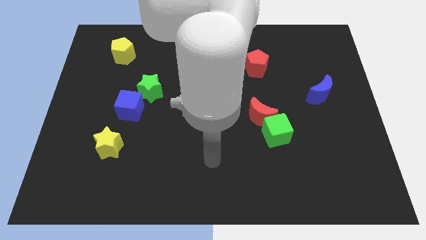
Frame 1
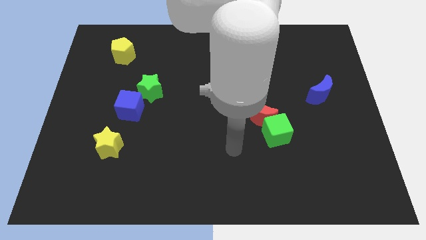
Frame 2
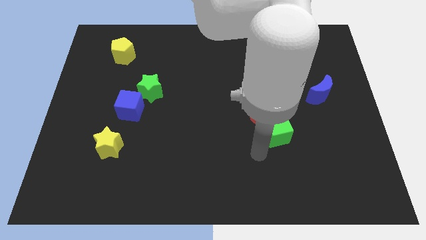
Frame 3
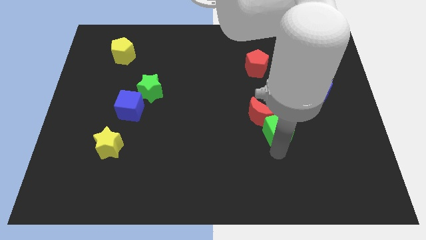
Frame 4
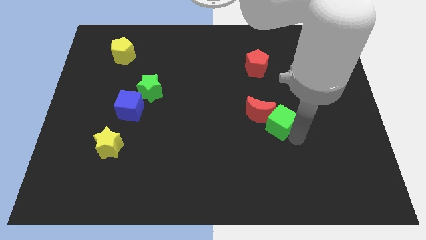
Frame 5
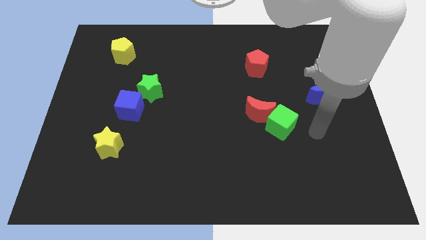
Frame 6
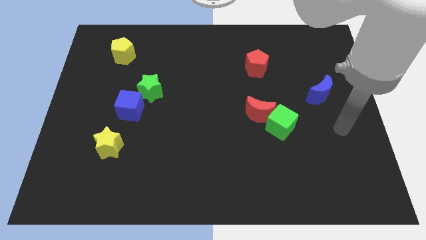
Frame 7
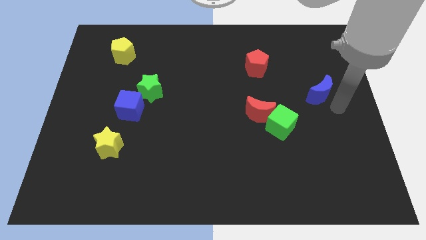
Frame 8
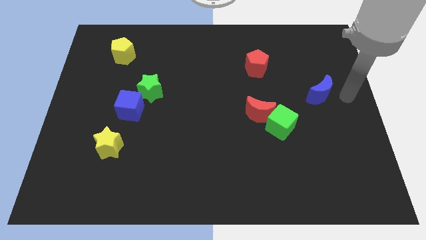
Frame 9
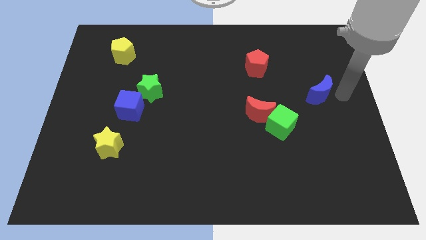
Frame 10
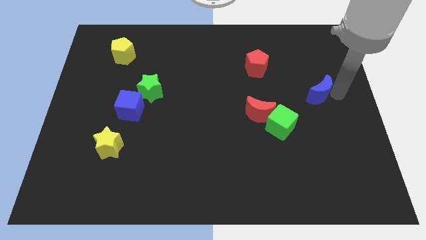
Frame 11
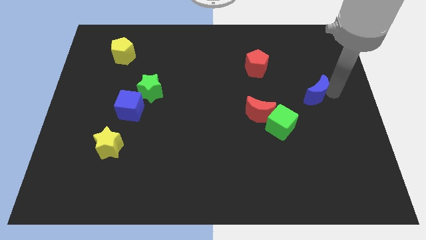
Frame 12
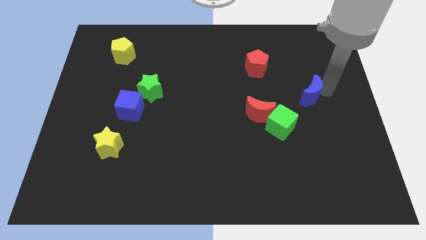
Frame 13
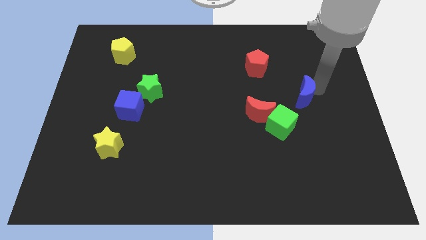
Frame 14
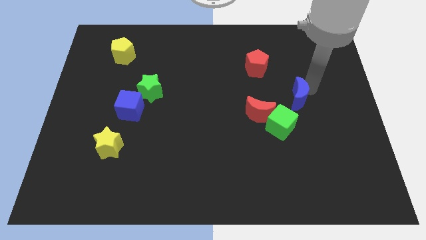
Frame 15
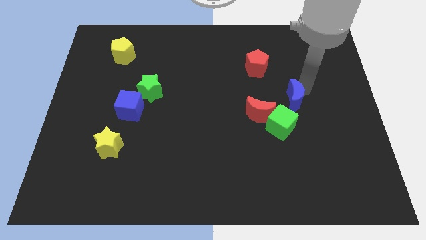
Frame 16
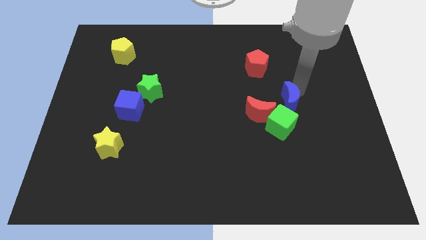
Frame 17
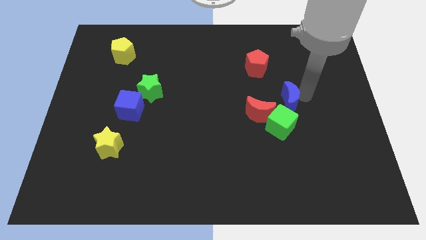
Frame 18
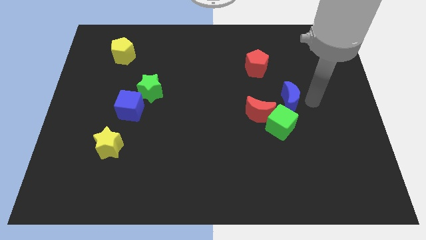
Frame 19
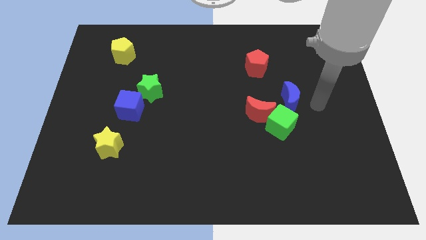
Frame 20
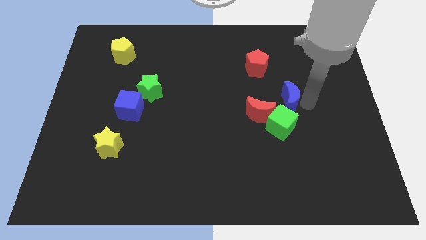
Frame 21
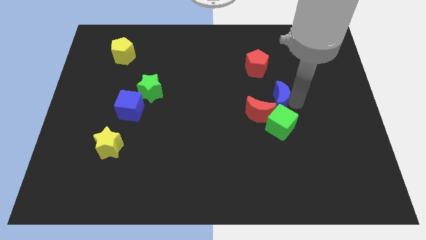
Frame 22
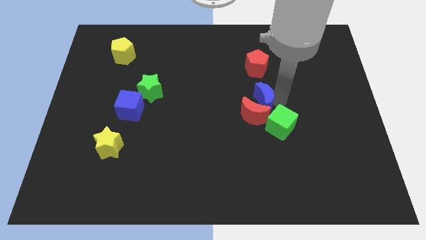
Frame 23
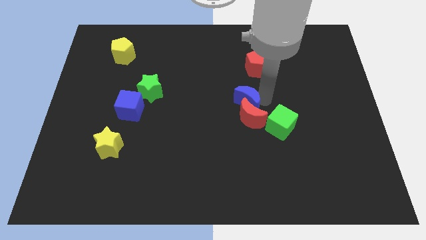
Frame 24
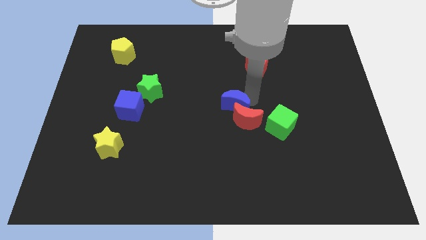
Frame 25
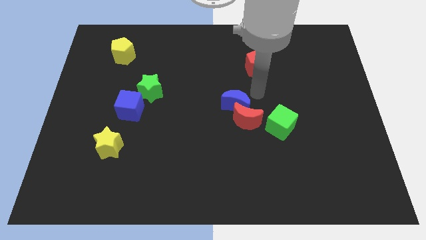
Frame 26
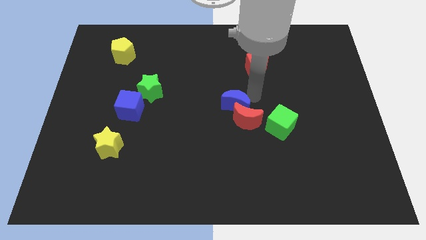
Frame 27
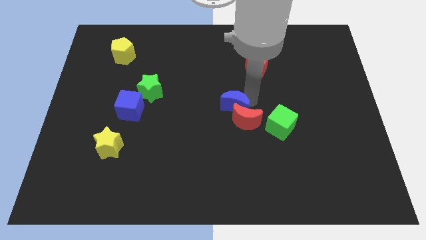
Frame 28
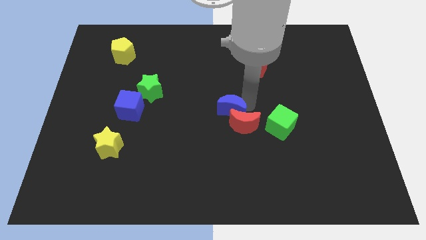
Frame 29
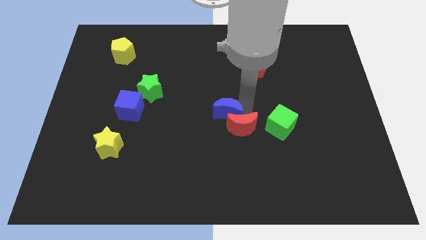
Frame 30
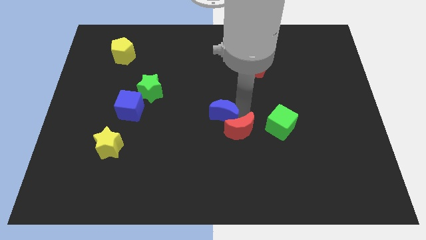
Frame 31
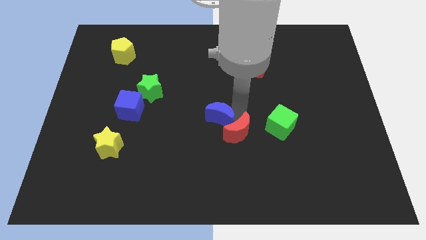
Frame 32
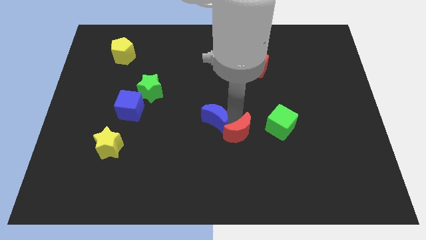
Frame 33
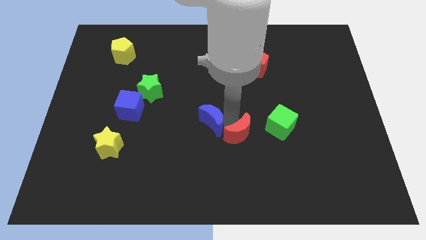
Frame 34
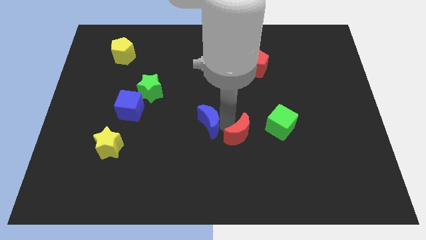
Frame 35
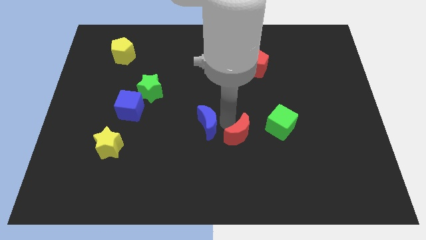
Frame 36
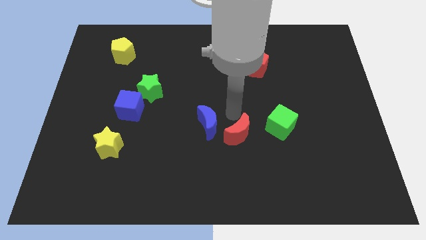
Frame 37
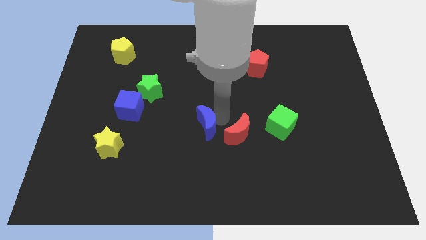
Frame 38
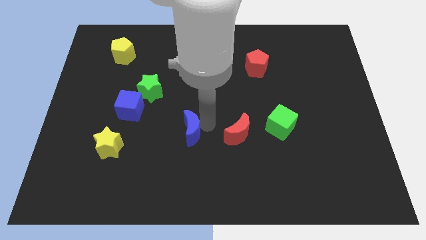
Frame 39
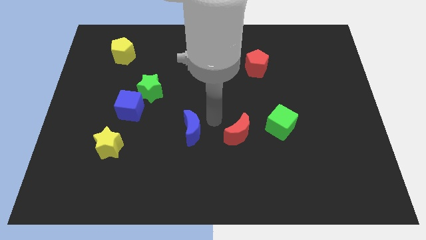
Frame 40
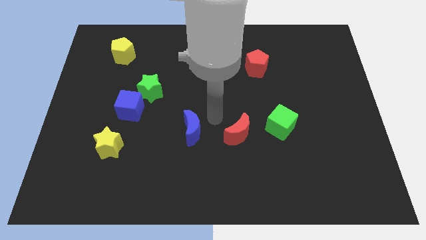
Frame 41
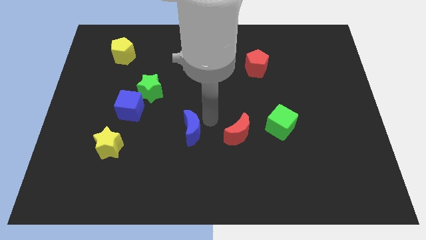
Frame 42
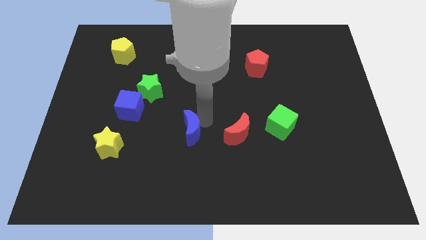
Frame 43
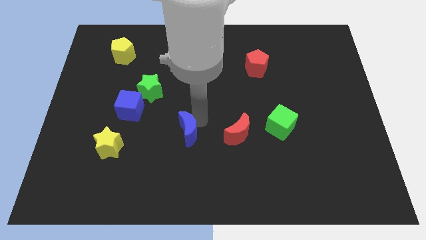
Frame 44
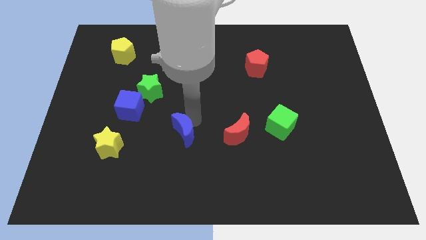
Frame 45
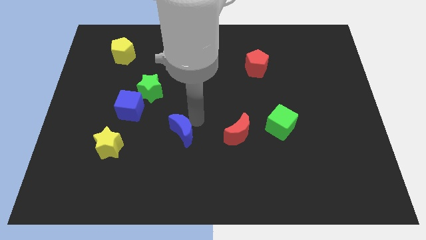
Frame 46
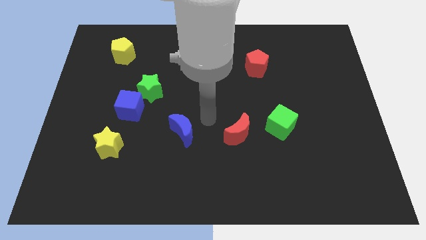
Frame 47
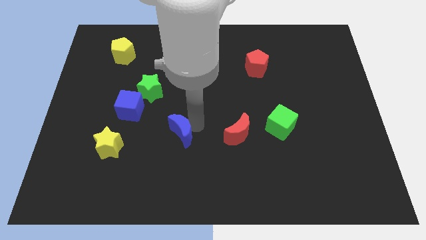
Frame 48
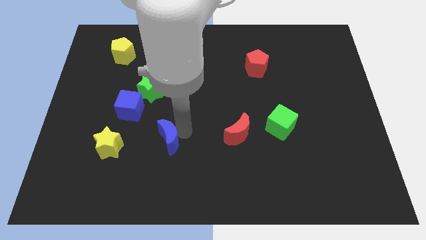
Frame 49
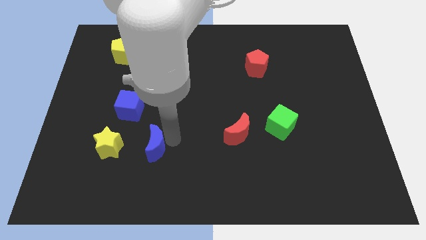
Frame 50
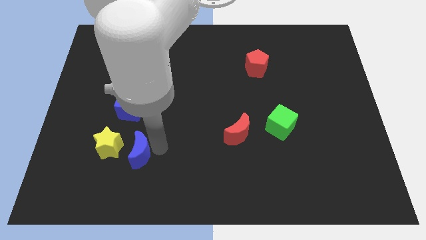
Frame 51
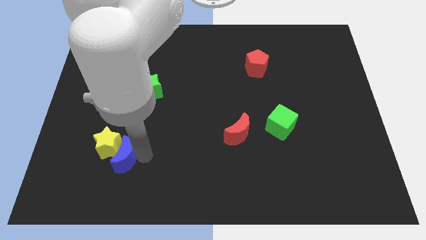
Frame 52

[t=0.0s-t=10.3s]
push the blue moon close to the yellow star

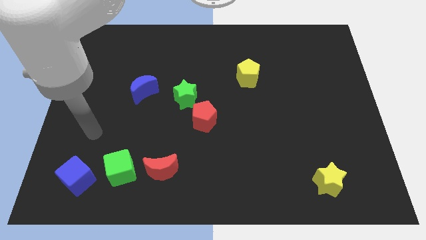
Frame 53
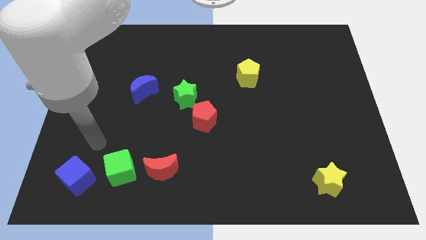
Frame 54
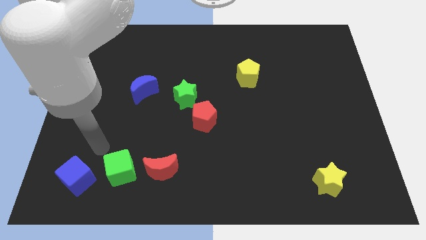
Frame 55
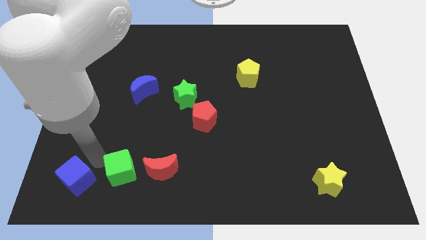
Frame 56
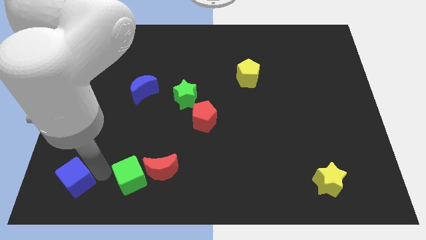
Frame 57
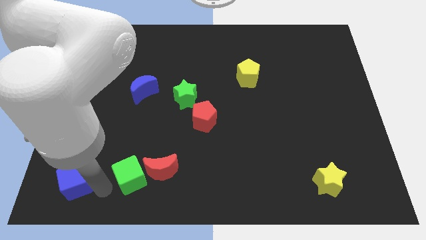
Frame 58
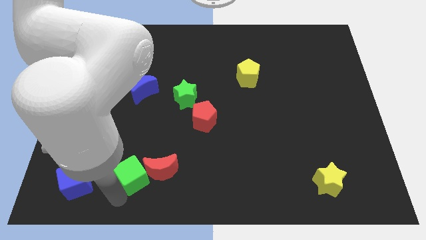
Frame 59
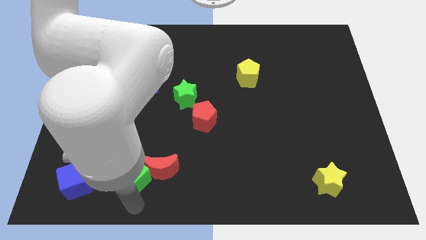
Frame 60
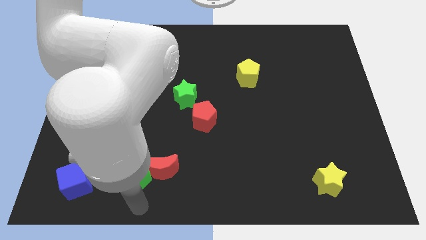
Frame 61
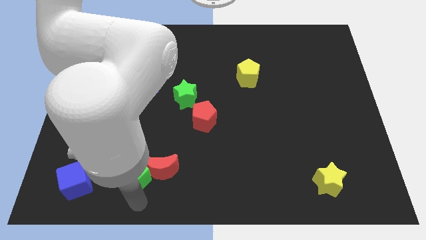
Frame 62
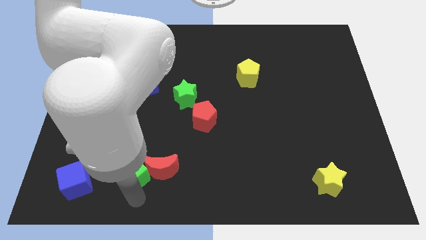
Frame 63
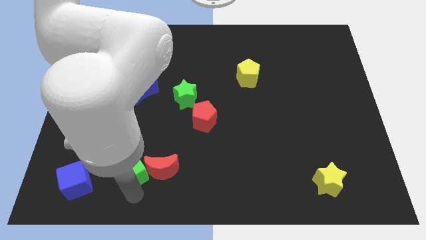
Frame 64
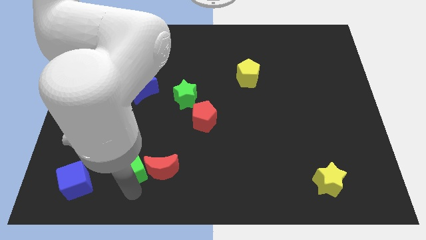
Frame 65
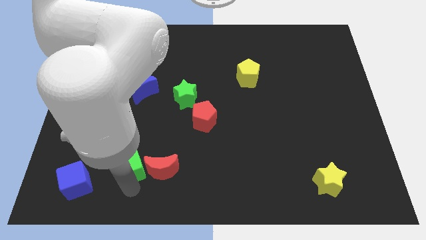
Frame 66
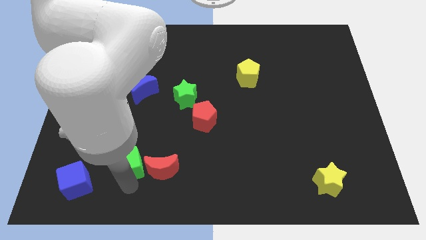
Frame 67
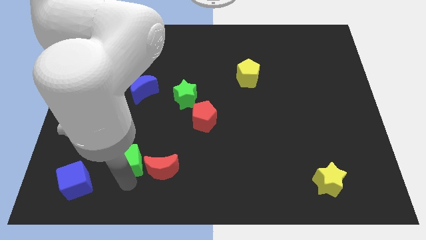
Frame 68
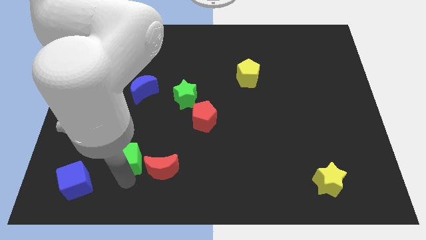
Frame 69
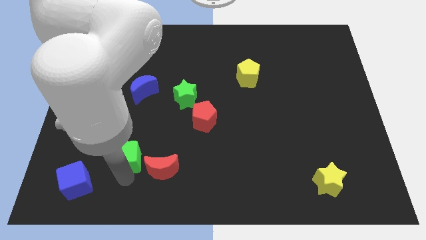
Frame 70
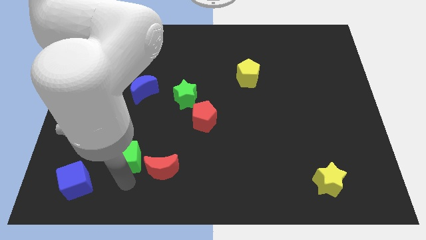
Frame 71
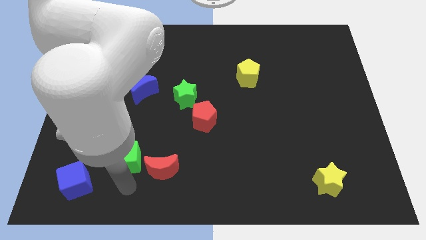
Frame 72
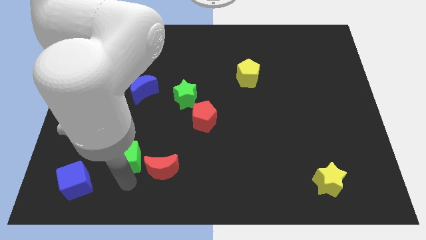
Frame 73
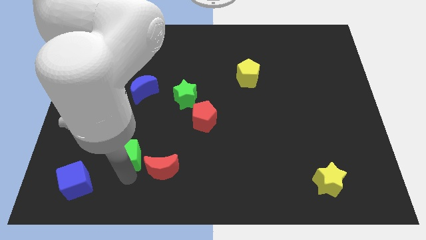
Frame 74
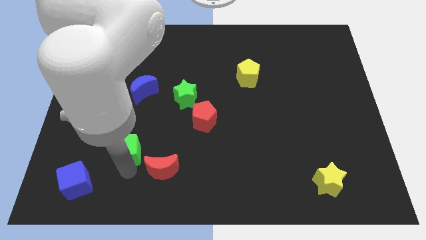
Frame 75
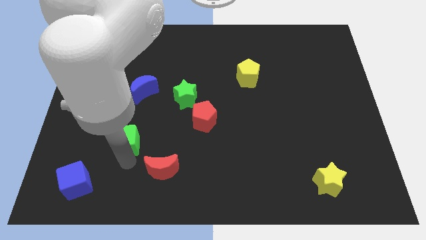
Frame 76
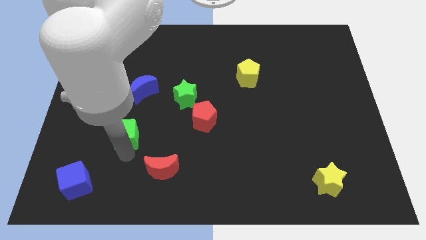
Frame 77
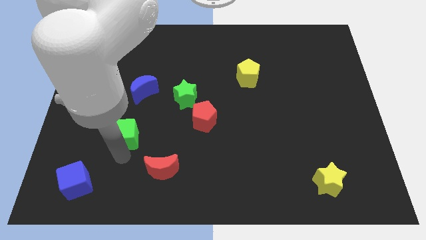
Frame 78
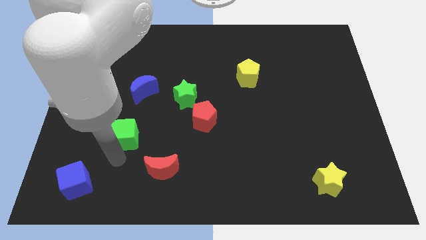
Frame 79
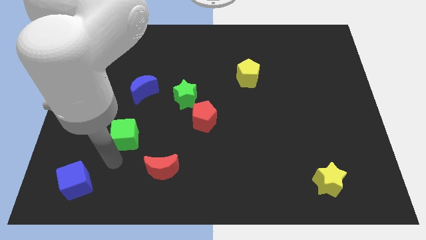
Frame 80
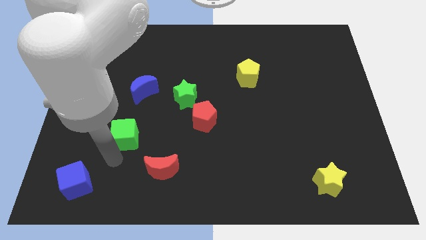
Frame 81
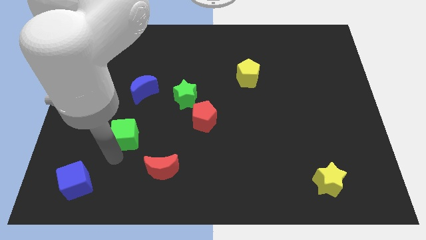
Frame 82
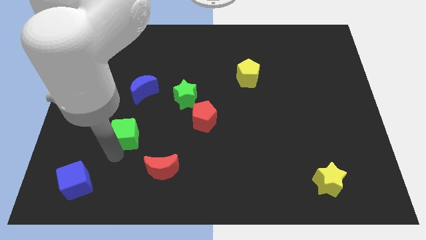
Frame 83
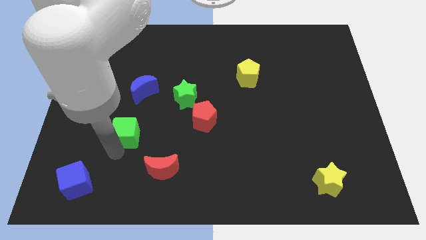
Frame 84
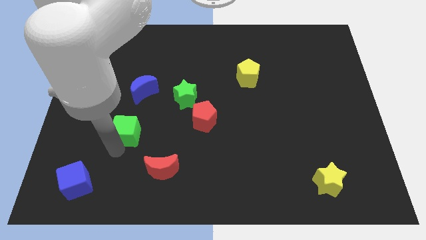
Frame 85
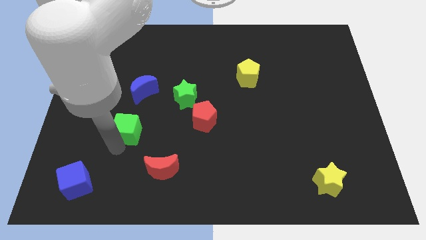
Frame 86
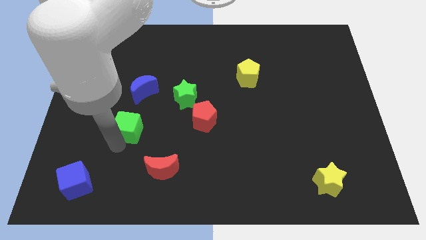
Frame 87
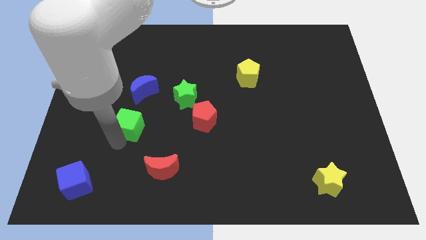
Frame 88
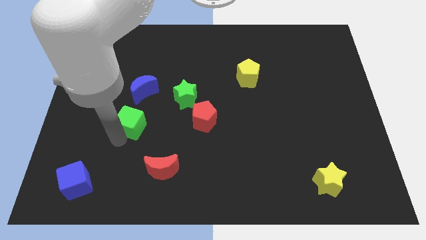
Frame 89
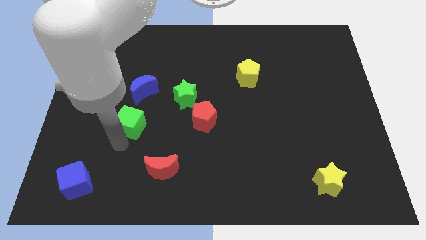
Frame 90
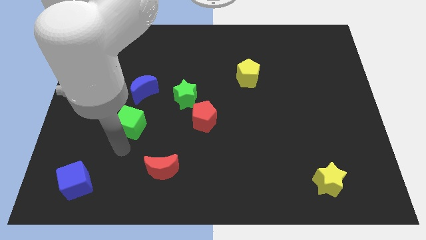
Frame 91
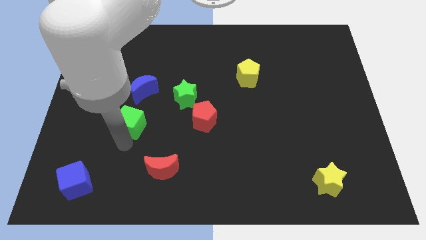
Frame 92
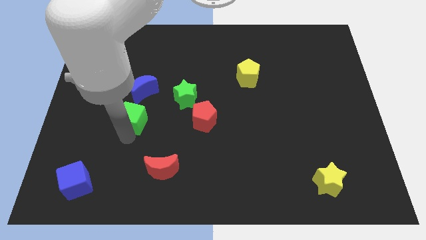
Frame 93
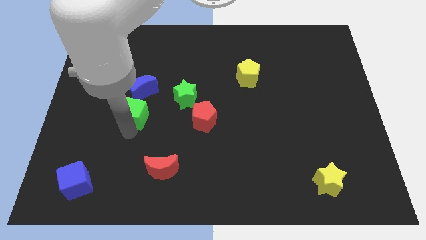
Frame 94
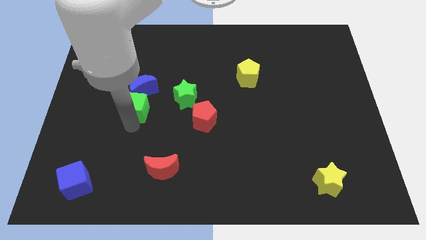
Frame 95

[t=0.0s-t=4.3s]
push the green cube to the blue moon
